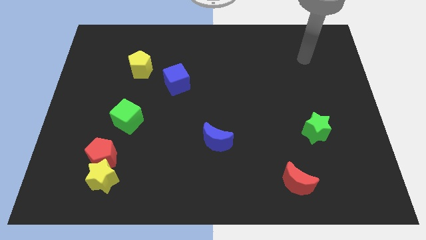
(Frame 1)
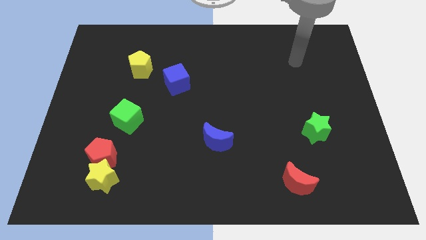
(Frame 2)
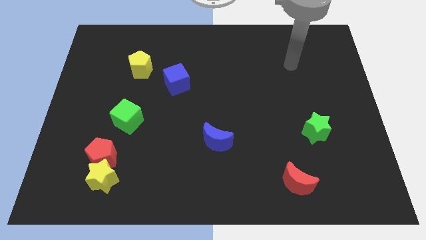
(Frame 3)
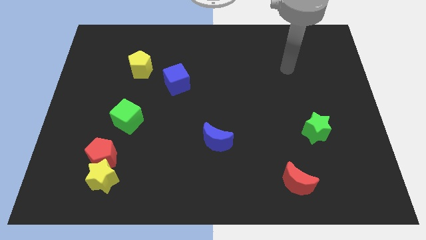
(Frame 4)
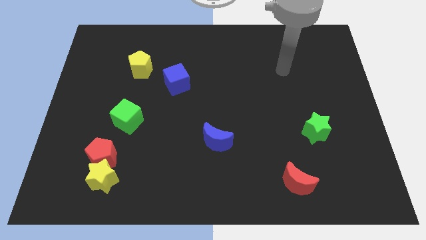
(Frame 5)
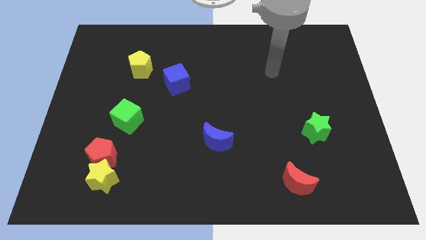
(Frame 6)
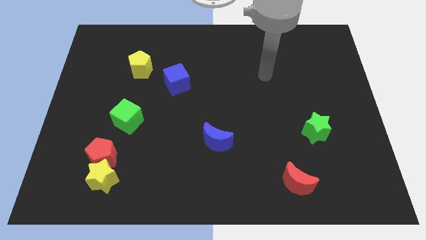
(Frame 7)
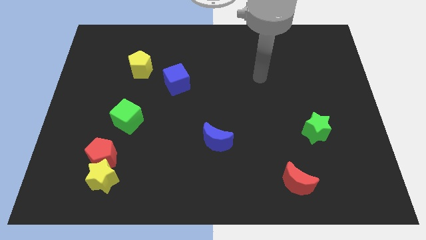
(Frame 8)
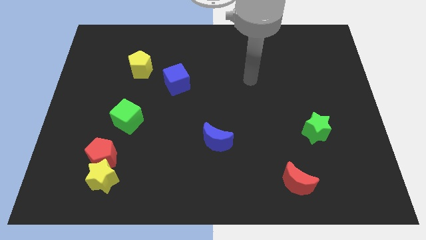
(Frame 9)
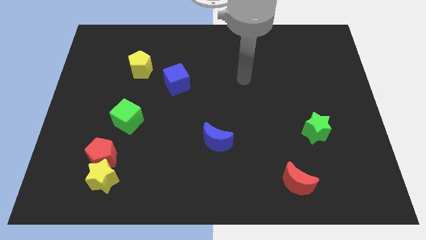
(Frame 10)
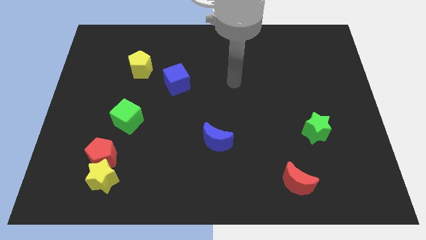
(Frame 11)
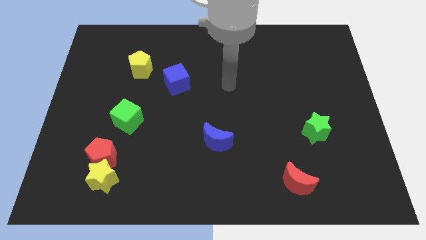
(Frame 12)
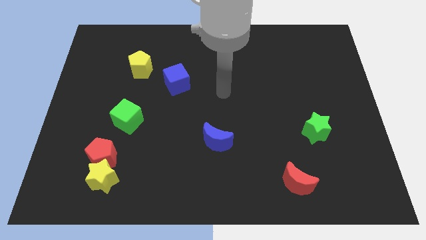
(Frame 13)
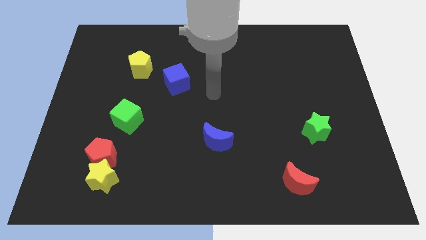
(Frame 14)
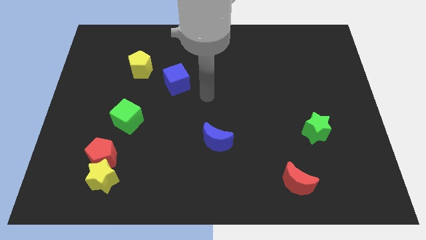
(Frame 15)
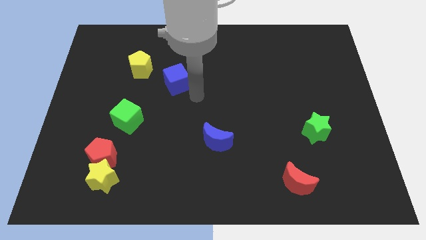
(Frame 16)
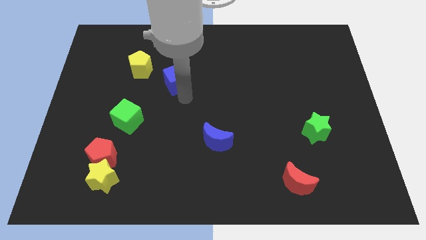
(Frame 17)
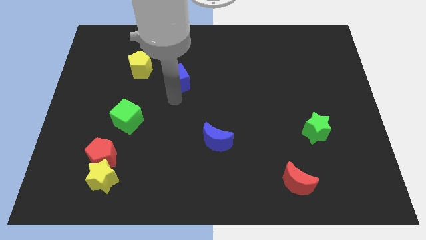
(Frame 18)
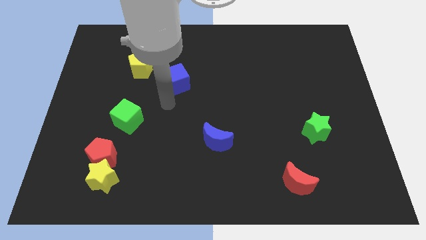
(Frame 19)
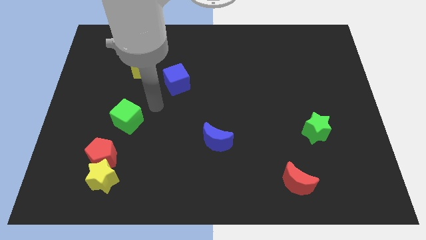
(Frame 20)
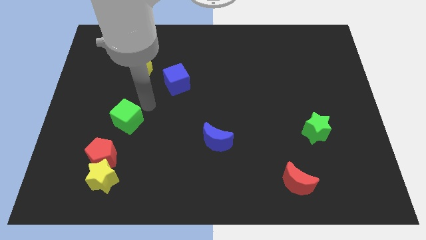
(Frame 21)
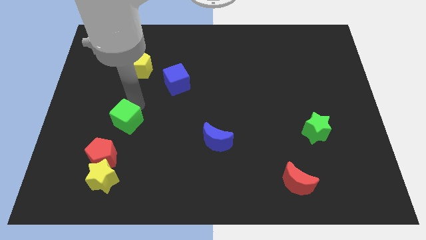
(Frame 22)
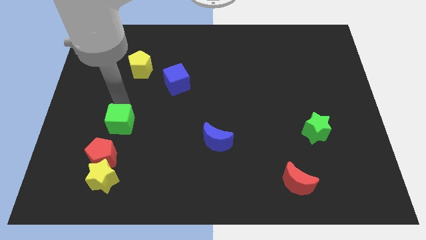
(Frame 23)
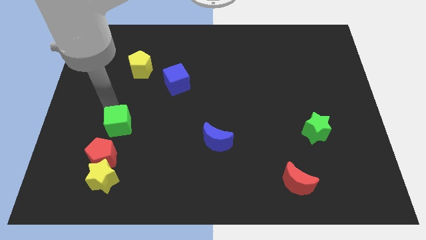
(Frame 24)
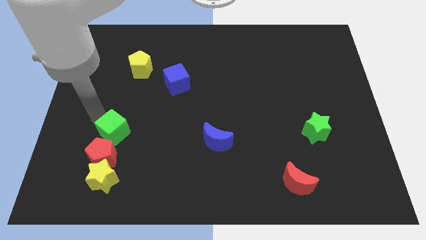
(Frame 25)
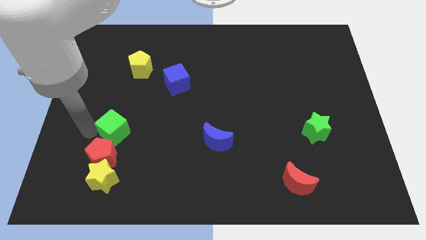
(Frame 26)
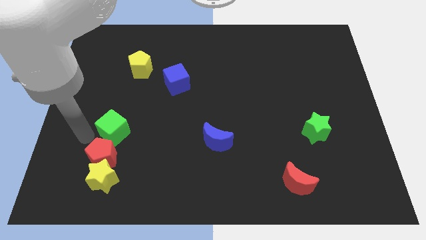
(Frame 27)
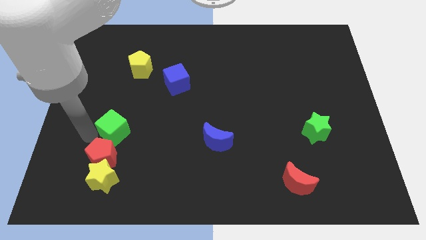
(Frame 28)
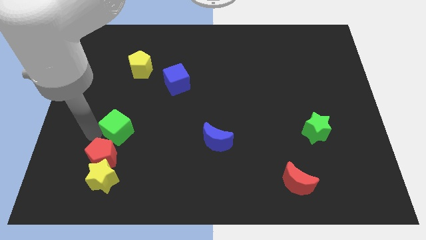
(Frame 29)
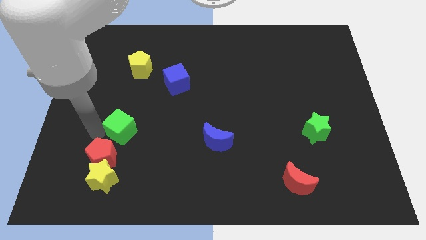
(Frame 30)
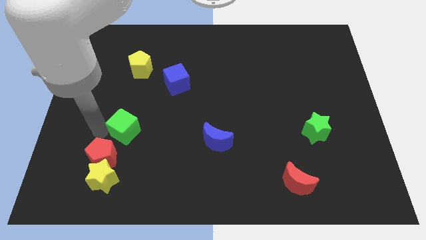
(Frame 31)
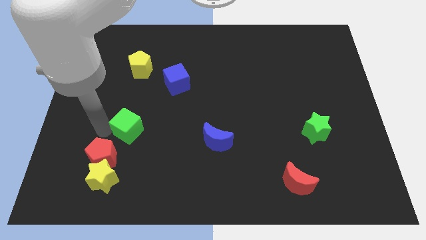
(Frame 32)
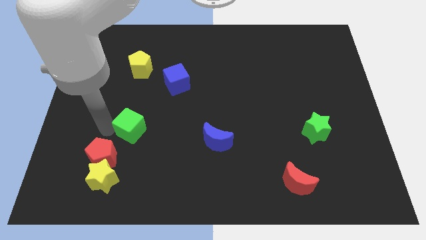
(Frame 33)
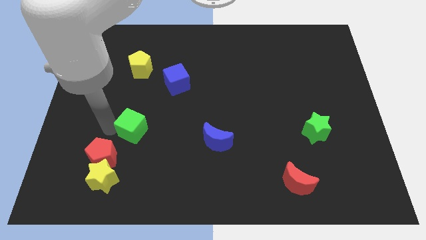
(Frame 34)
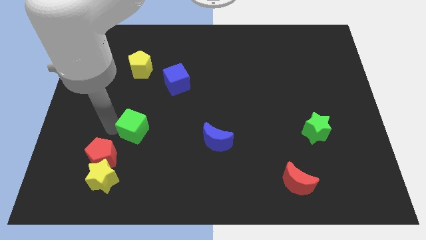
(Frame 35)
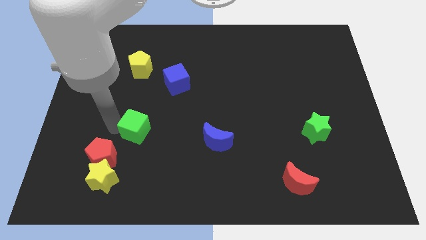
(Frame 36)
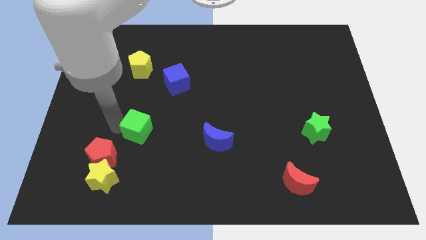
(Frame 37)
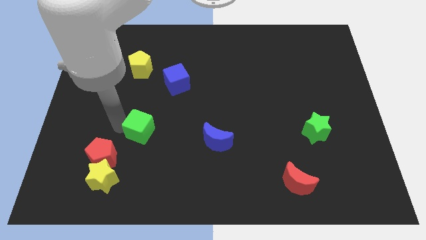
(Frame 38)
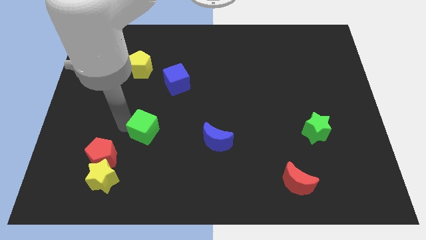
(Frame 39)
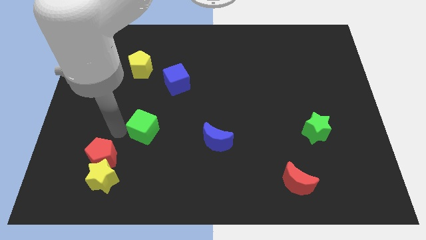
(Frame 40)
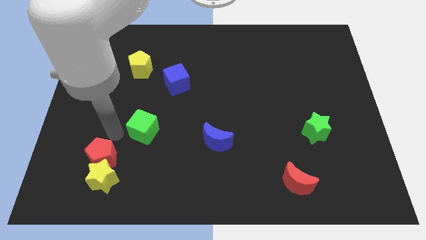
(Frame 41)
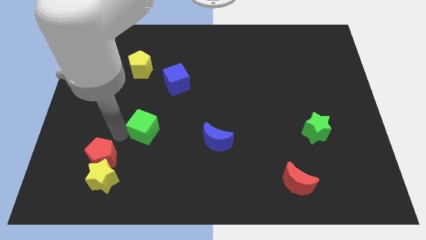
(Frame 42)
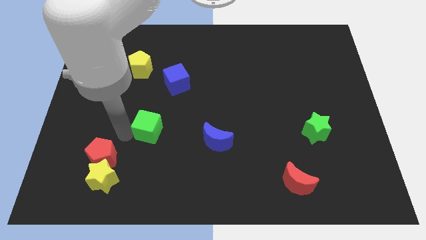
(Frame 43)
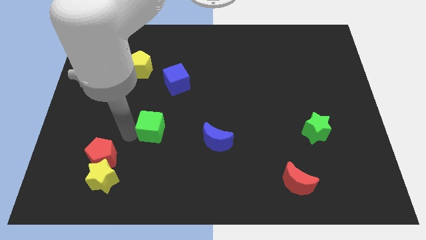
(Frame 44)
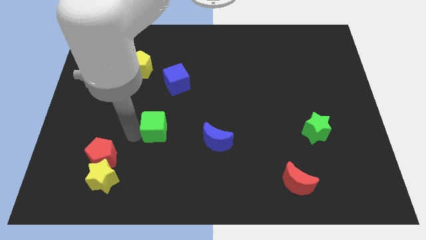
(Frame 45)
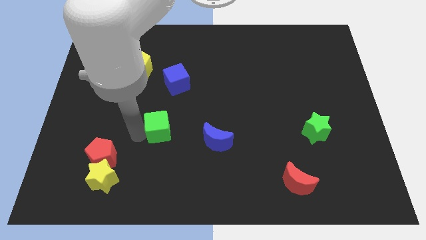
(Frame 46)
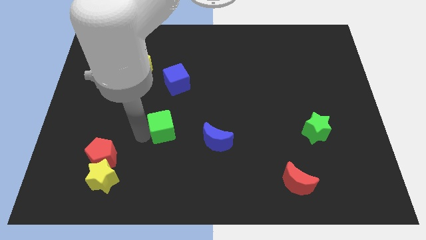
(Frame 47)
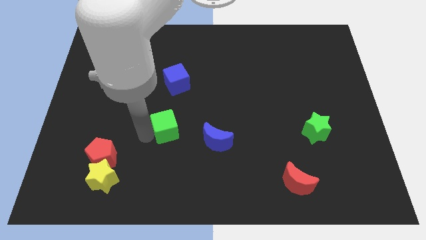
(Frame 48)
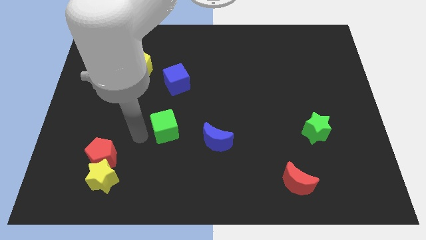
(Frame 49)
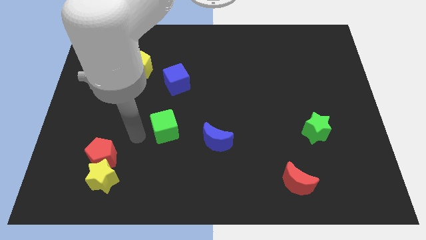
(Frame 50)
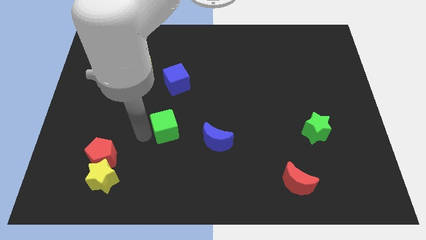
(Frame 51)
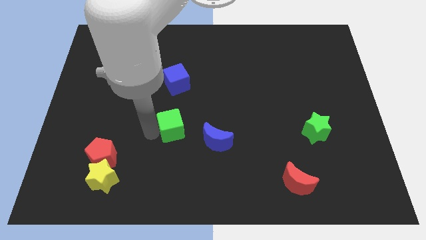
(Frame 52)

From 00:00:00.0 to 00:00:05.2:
put the green cube to the top left of the blue moon

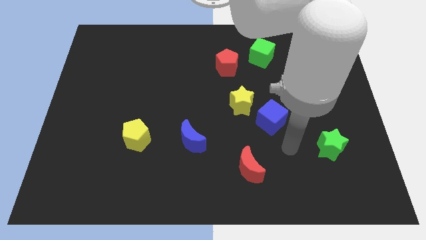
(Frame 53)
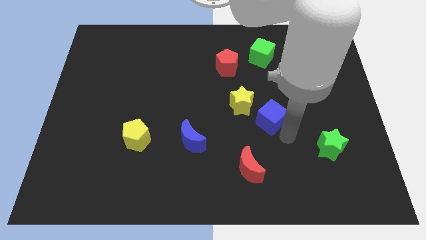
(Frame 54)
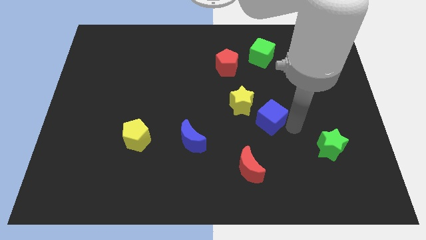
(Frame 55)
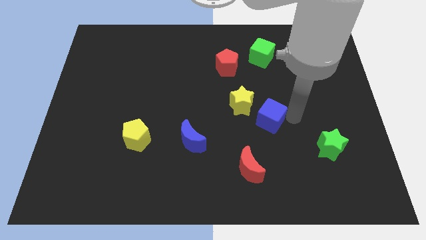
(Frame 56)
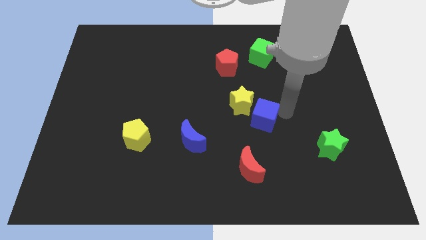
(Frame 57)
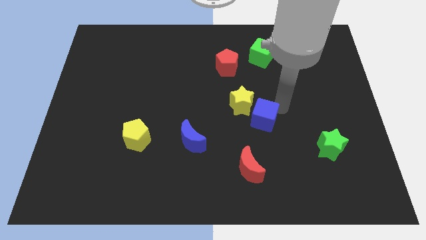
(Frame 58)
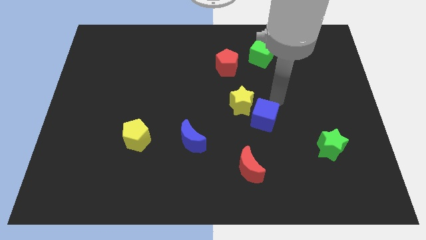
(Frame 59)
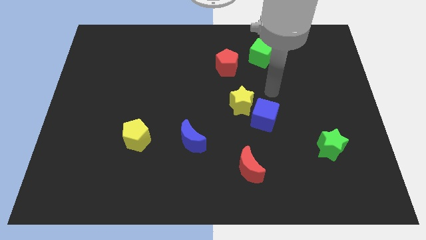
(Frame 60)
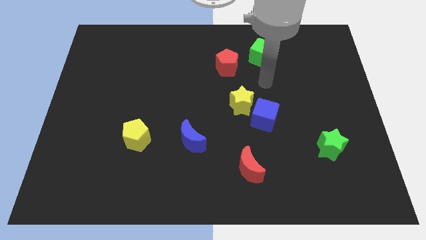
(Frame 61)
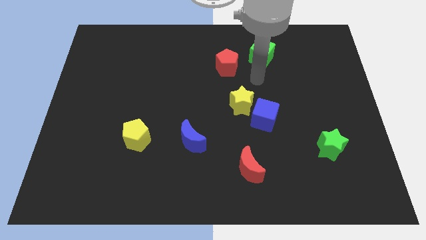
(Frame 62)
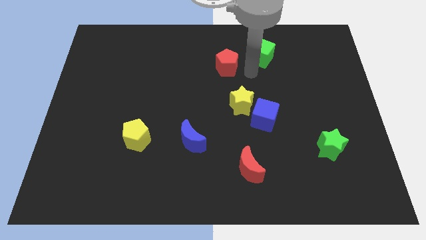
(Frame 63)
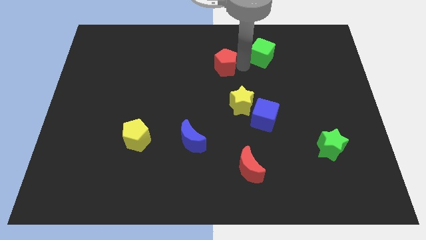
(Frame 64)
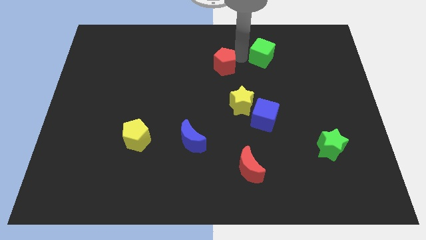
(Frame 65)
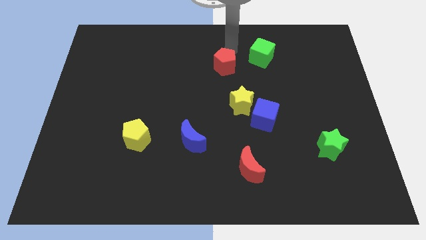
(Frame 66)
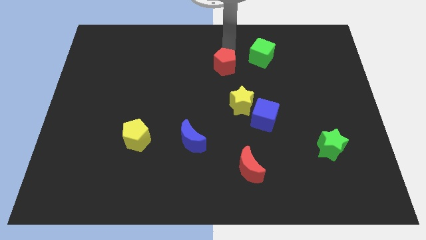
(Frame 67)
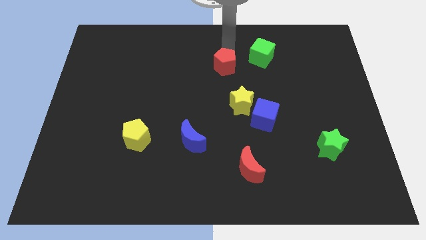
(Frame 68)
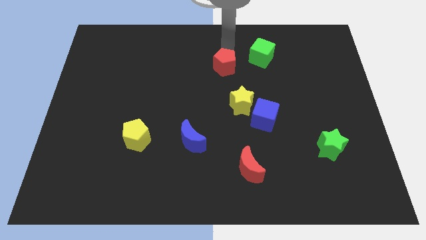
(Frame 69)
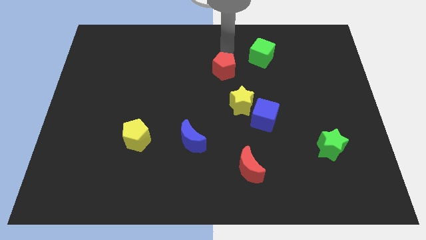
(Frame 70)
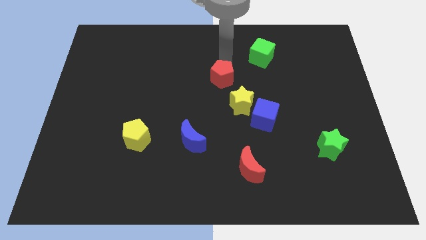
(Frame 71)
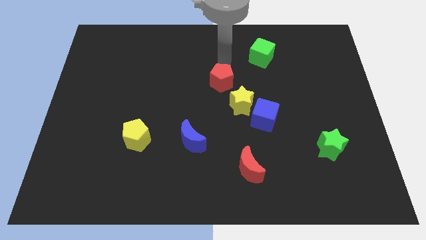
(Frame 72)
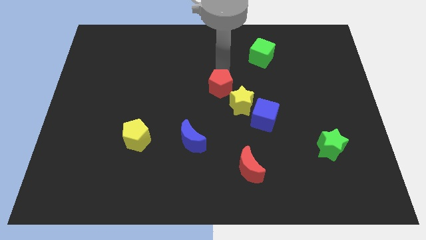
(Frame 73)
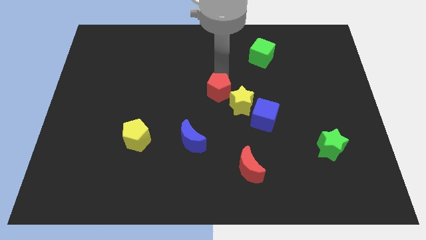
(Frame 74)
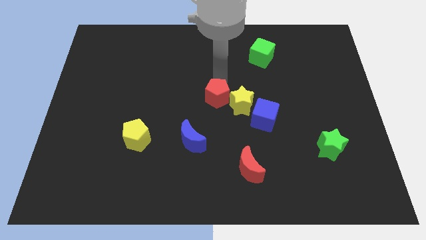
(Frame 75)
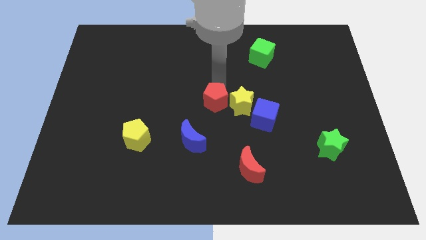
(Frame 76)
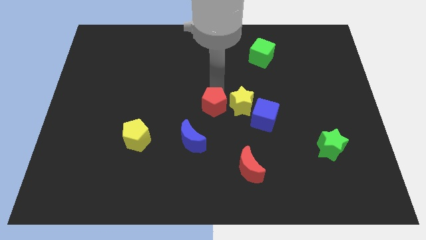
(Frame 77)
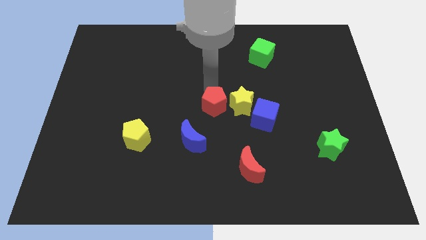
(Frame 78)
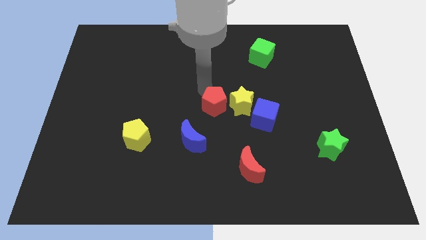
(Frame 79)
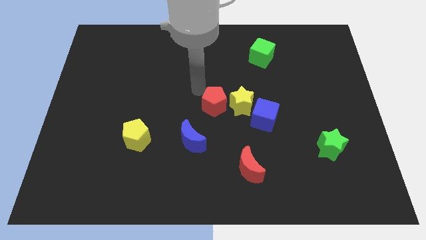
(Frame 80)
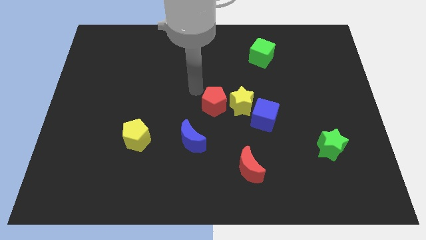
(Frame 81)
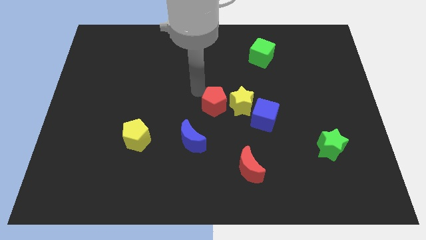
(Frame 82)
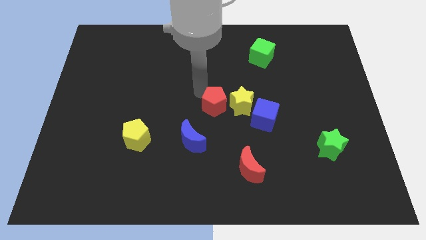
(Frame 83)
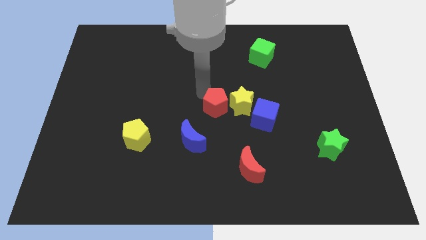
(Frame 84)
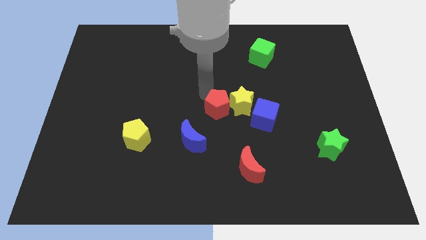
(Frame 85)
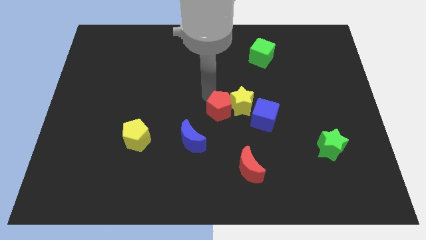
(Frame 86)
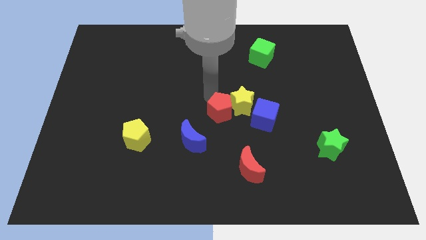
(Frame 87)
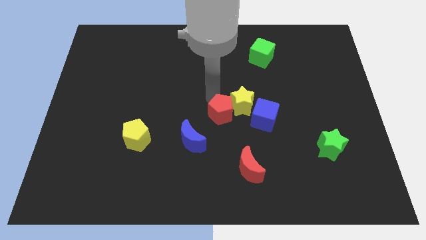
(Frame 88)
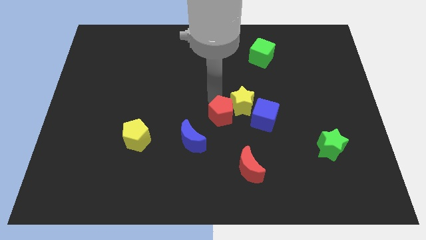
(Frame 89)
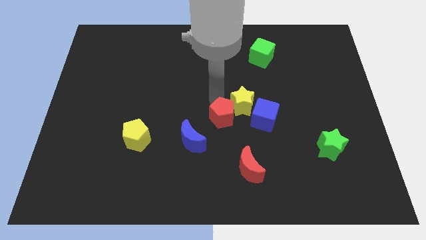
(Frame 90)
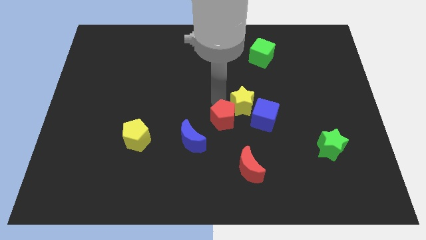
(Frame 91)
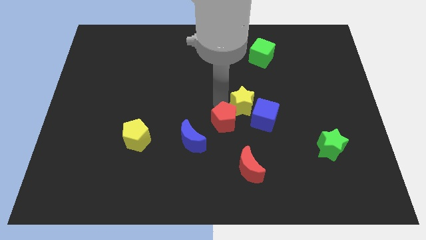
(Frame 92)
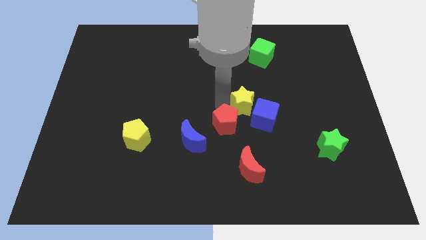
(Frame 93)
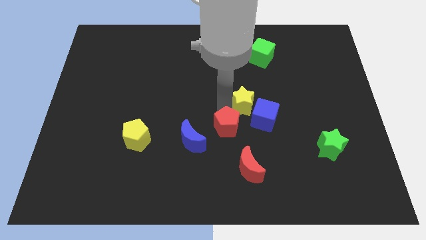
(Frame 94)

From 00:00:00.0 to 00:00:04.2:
slide the red pentagon diagonally down and to the left of the blue cube
